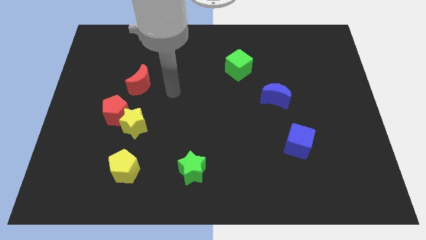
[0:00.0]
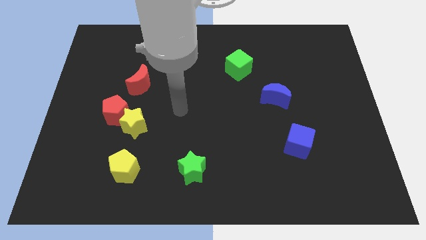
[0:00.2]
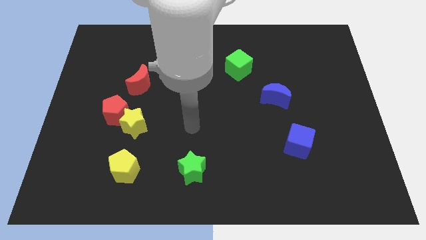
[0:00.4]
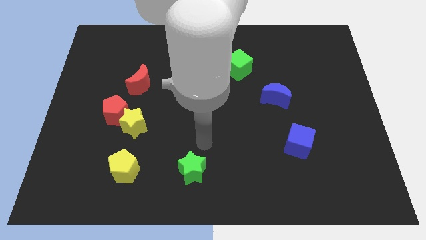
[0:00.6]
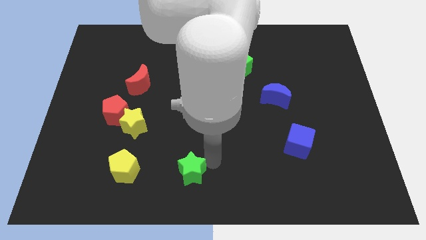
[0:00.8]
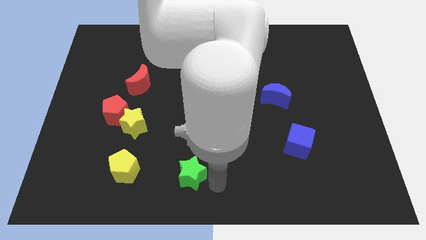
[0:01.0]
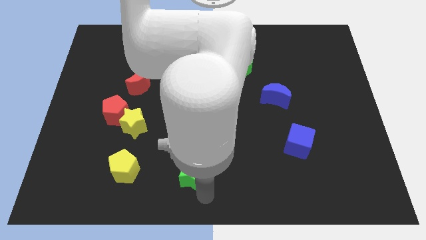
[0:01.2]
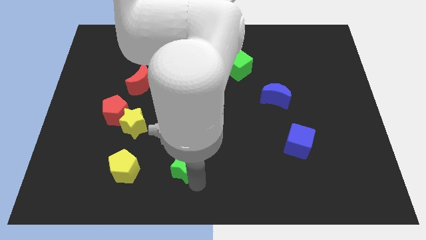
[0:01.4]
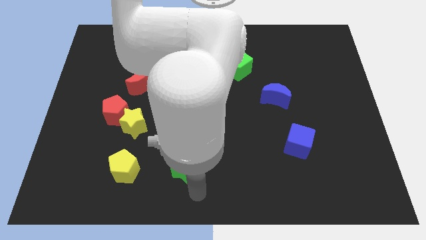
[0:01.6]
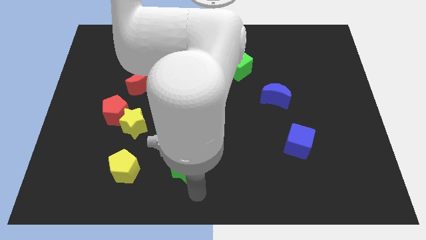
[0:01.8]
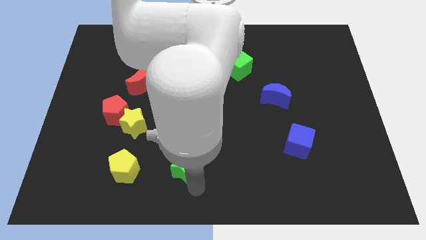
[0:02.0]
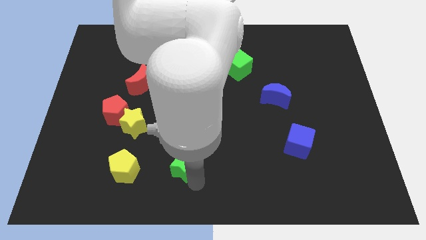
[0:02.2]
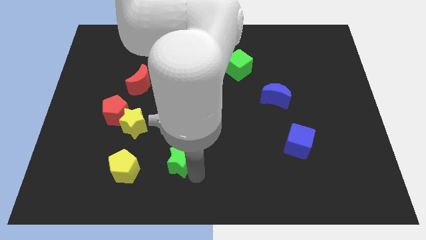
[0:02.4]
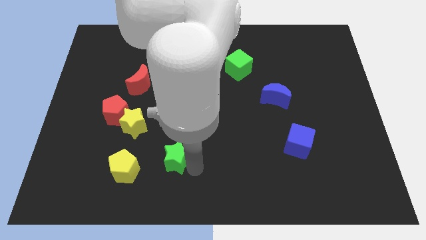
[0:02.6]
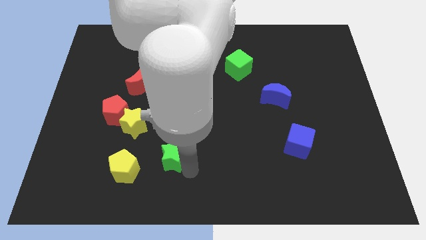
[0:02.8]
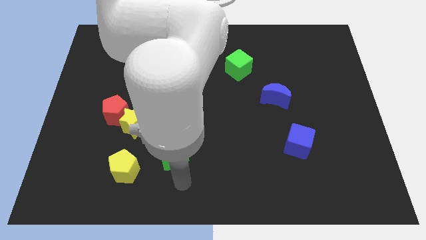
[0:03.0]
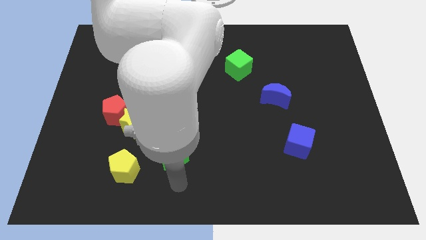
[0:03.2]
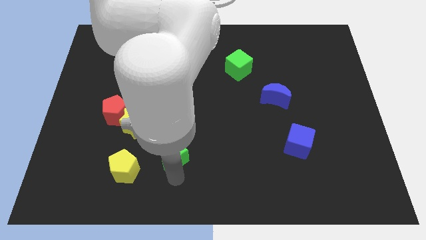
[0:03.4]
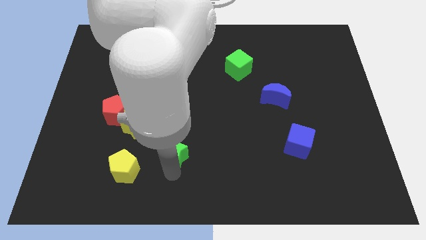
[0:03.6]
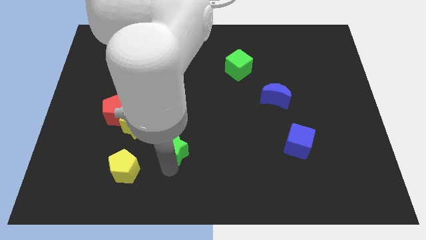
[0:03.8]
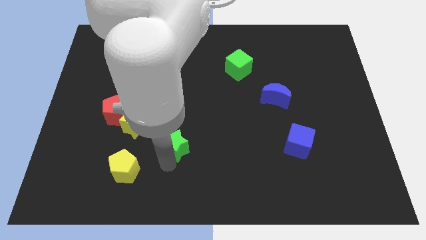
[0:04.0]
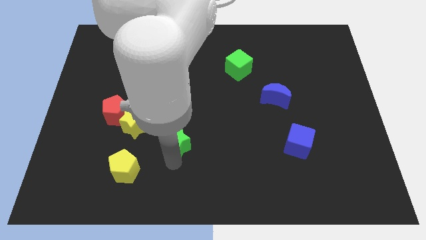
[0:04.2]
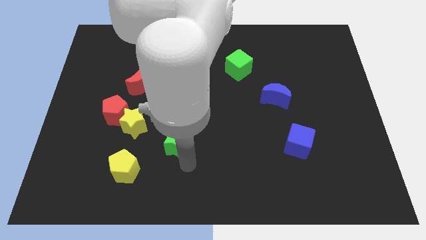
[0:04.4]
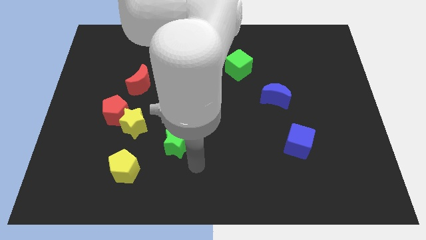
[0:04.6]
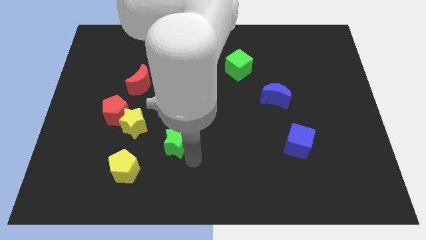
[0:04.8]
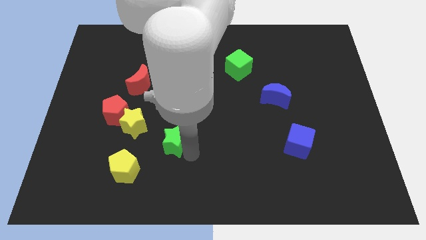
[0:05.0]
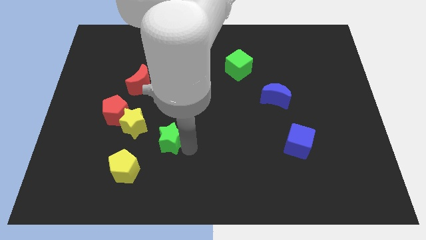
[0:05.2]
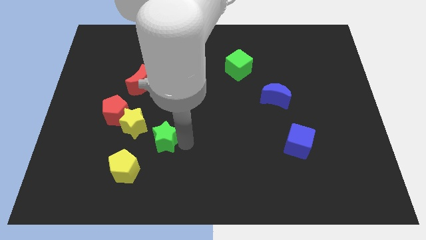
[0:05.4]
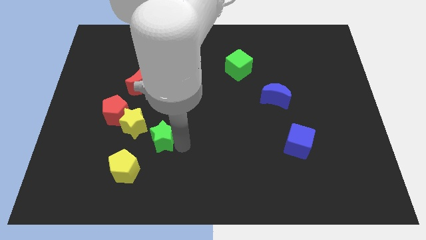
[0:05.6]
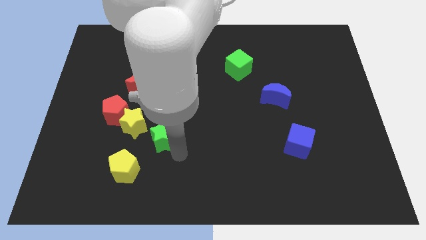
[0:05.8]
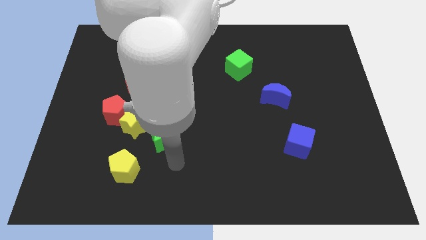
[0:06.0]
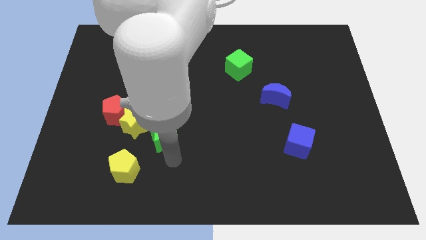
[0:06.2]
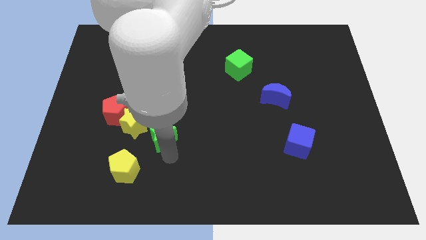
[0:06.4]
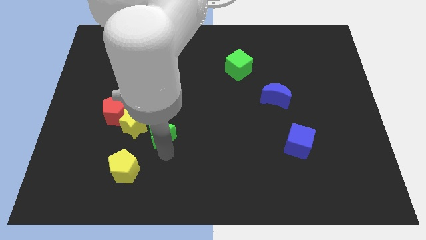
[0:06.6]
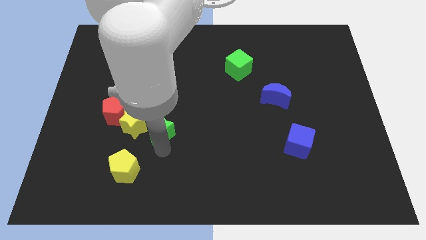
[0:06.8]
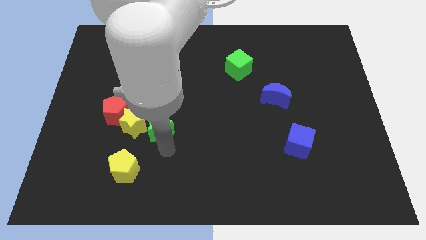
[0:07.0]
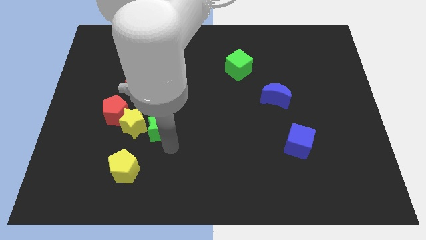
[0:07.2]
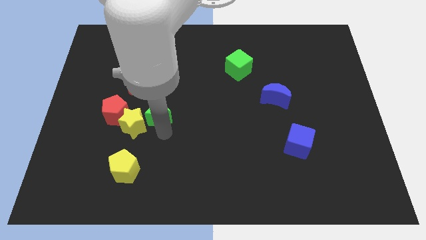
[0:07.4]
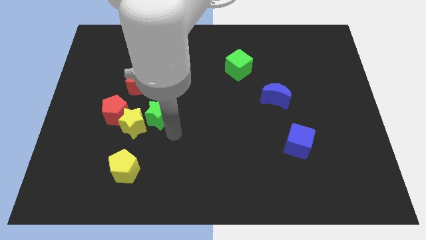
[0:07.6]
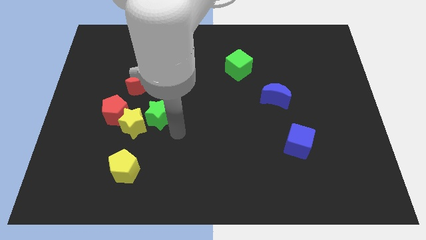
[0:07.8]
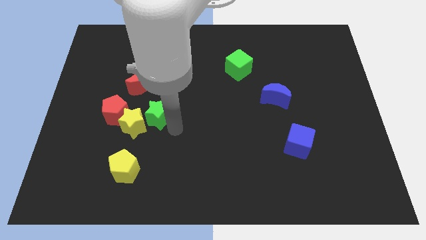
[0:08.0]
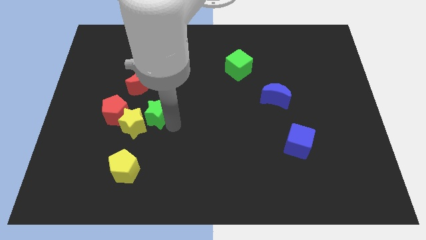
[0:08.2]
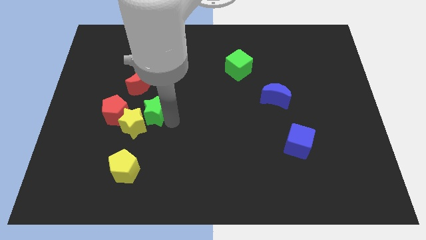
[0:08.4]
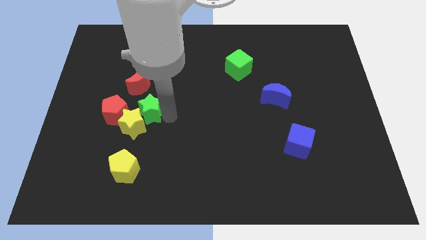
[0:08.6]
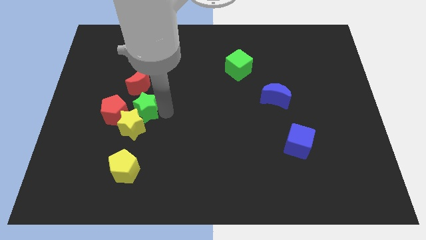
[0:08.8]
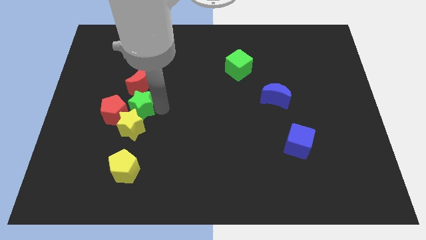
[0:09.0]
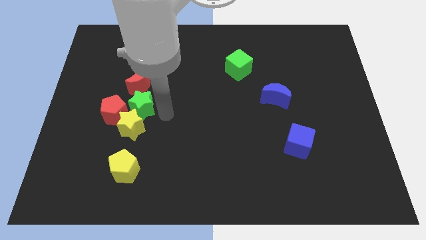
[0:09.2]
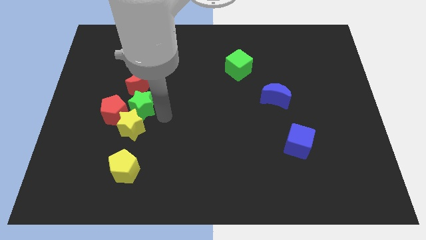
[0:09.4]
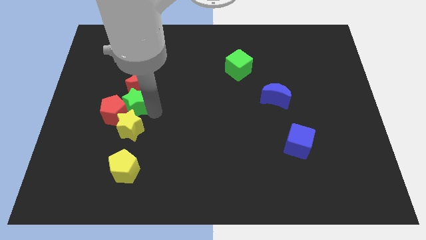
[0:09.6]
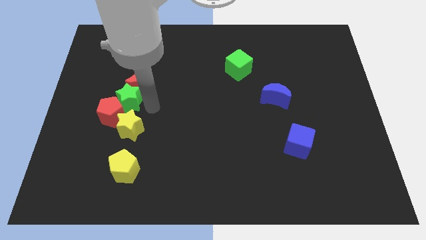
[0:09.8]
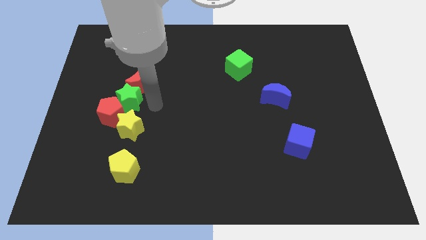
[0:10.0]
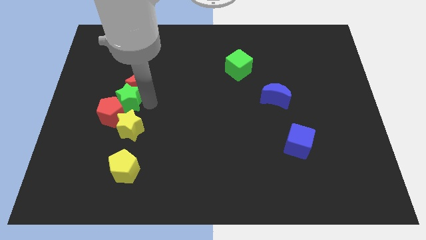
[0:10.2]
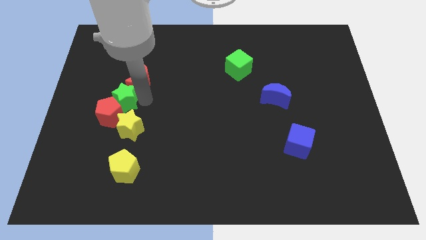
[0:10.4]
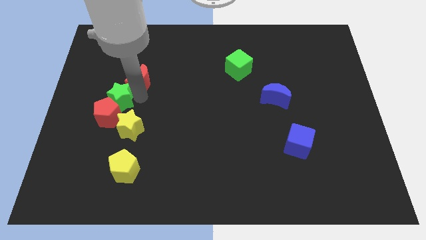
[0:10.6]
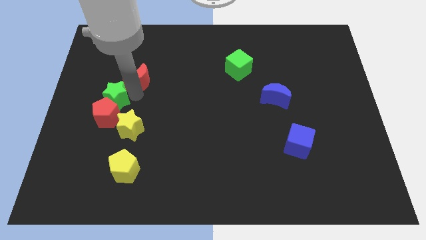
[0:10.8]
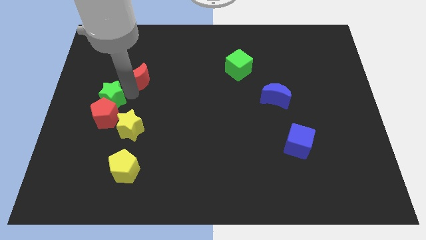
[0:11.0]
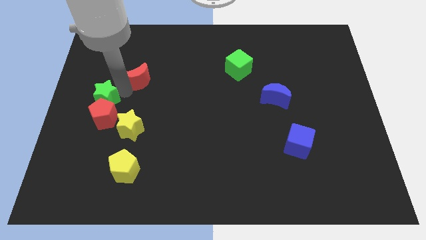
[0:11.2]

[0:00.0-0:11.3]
push the green star to the left side of the board

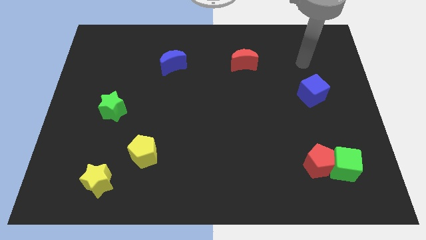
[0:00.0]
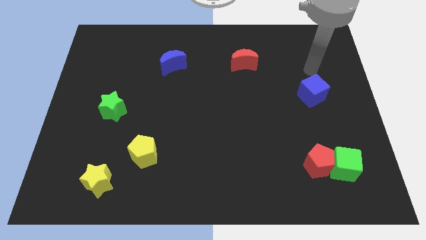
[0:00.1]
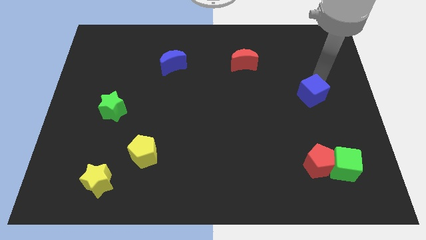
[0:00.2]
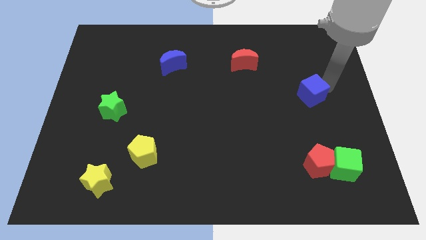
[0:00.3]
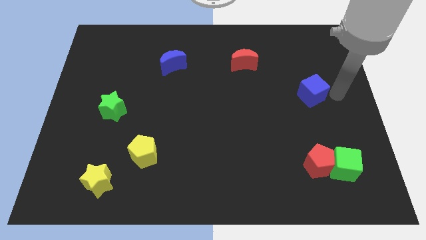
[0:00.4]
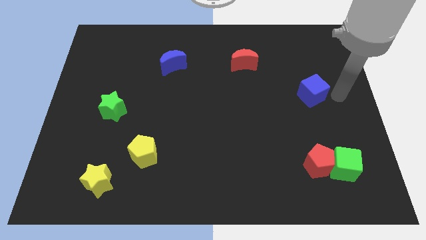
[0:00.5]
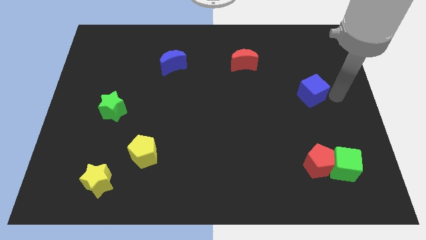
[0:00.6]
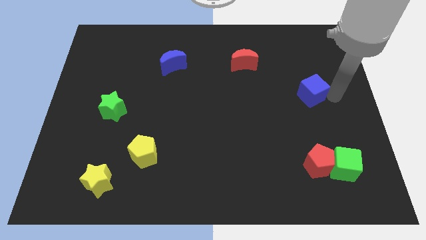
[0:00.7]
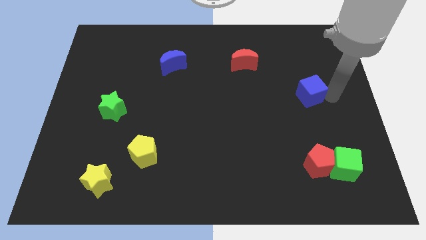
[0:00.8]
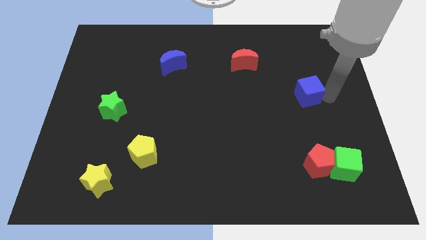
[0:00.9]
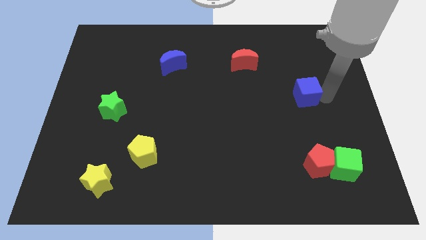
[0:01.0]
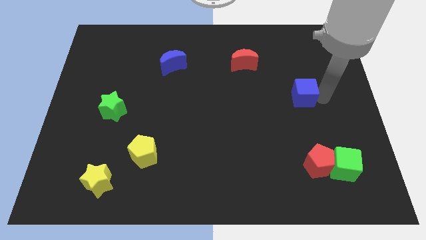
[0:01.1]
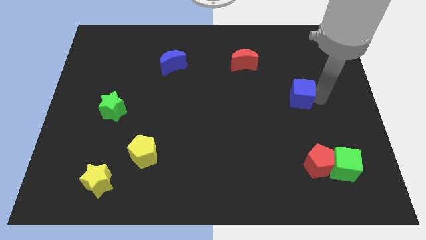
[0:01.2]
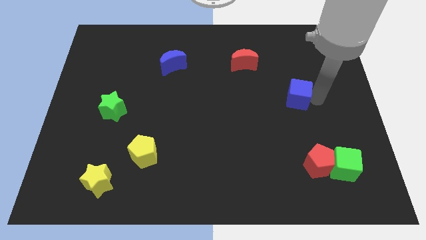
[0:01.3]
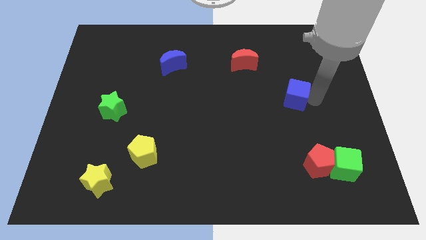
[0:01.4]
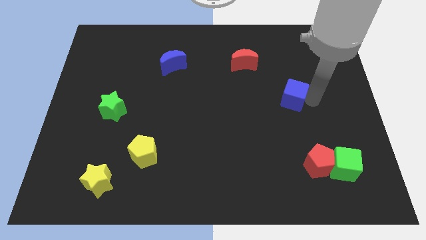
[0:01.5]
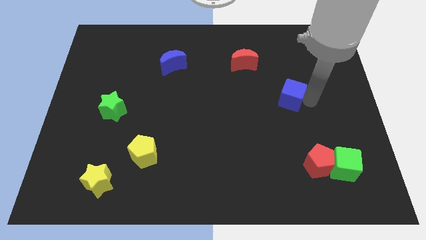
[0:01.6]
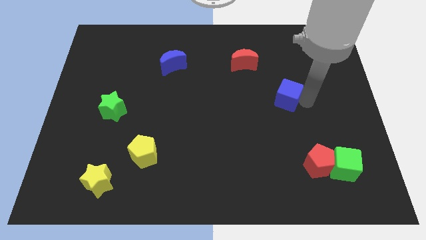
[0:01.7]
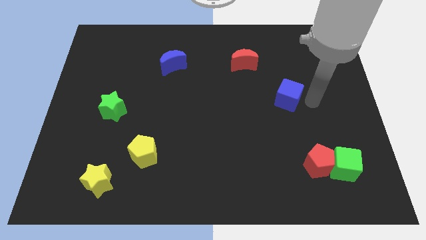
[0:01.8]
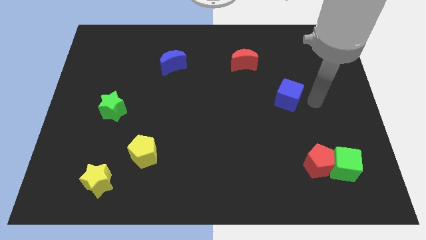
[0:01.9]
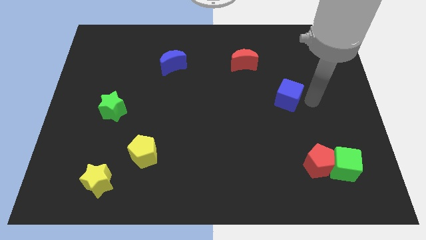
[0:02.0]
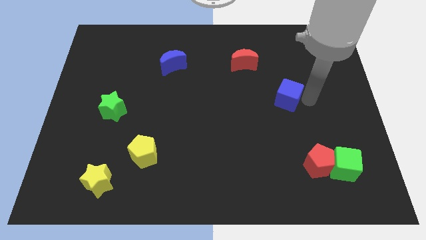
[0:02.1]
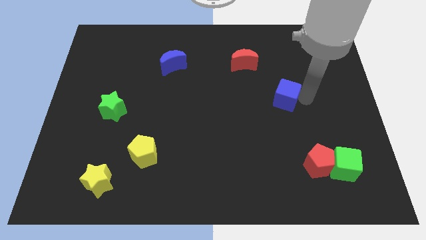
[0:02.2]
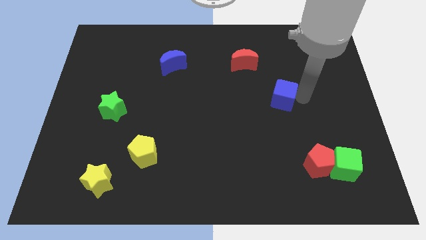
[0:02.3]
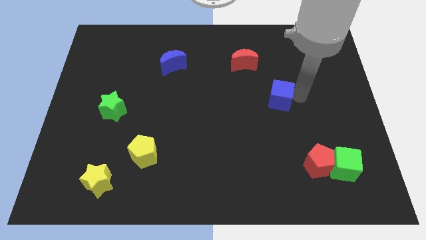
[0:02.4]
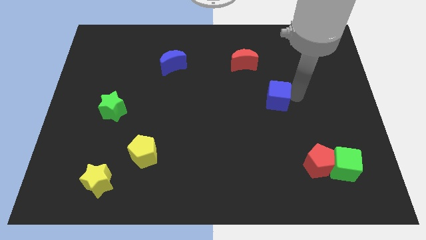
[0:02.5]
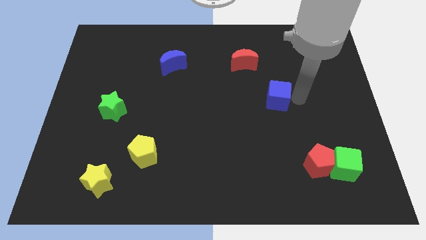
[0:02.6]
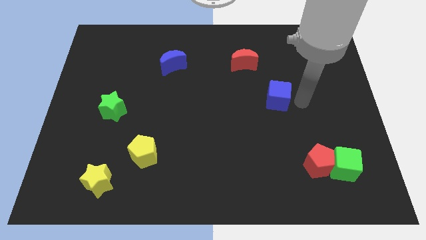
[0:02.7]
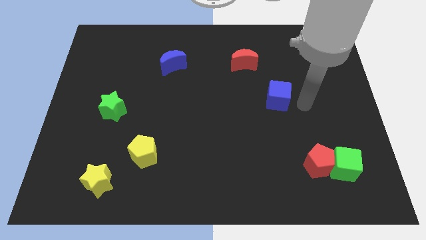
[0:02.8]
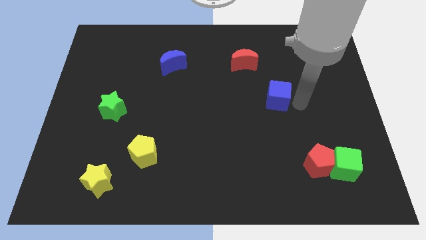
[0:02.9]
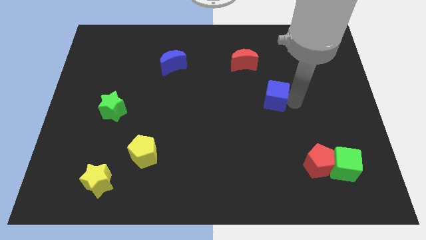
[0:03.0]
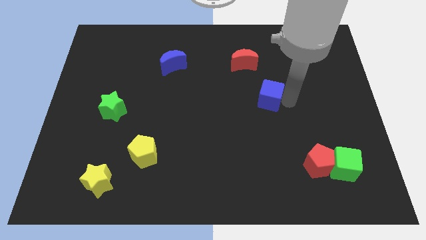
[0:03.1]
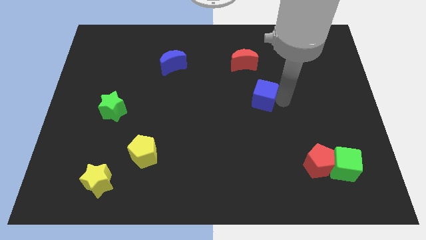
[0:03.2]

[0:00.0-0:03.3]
move the blue cube to the middle
